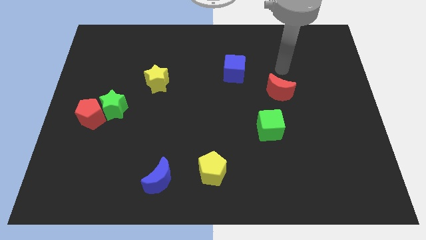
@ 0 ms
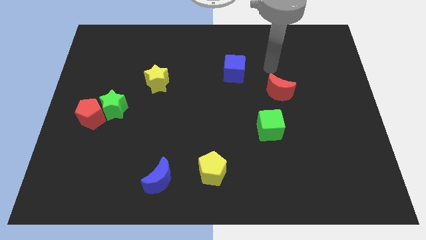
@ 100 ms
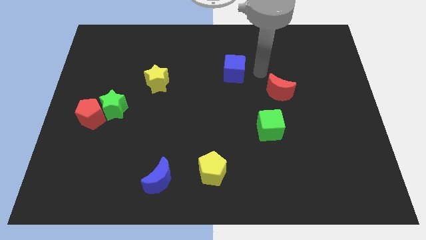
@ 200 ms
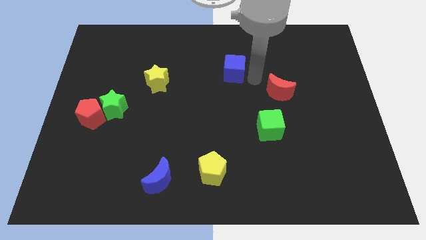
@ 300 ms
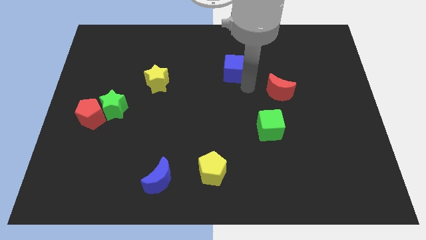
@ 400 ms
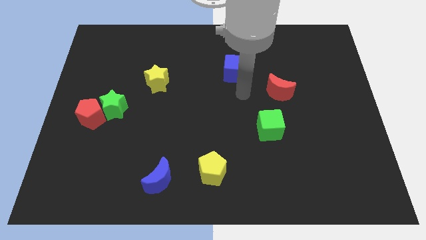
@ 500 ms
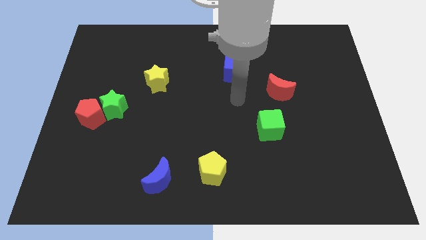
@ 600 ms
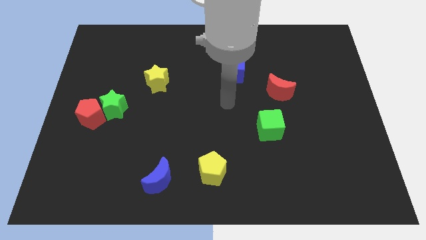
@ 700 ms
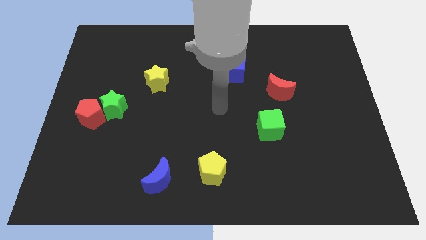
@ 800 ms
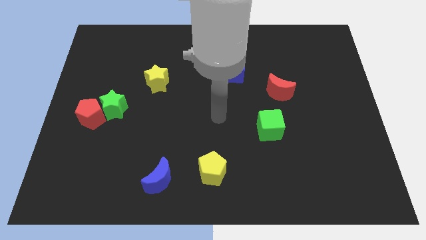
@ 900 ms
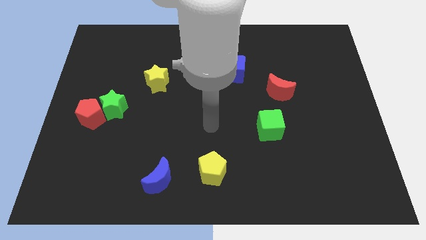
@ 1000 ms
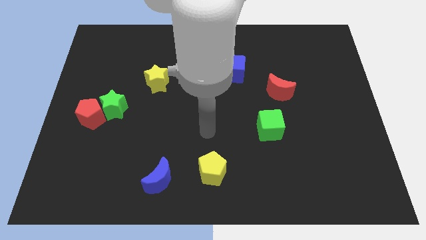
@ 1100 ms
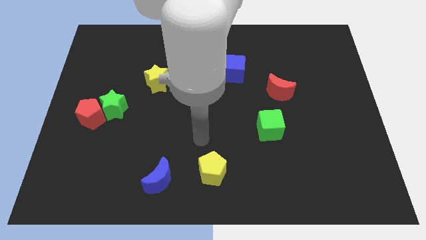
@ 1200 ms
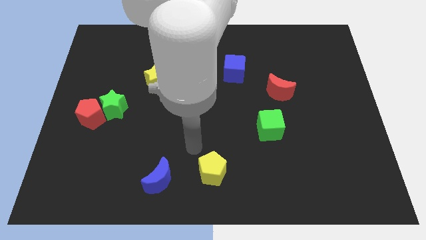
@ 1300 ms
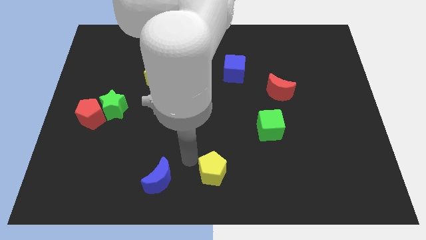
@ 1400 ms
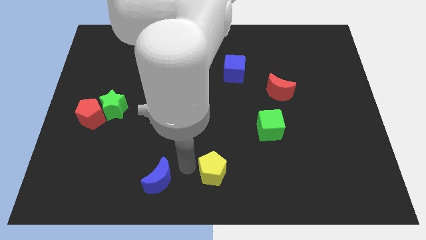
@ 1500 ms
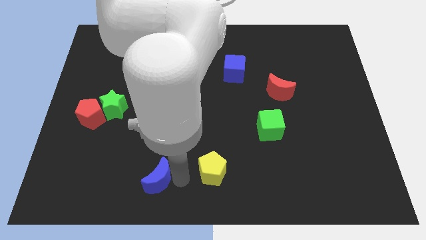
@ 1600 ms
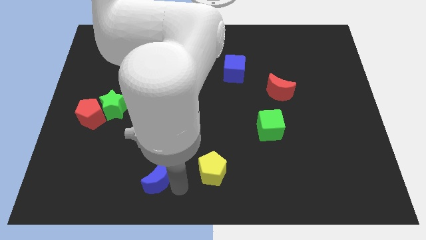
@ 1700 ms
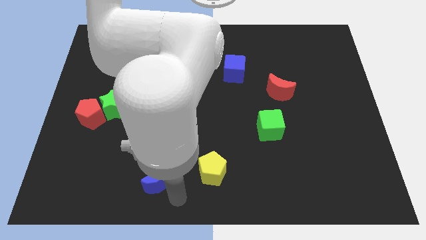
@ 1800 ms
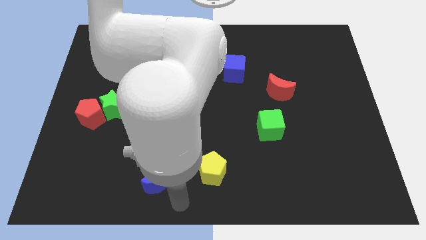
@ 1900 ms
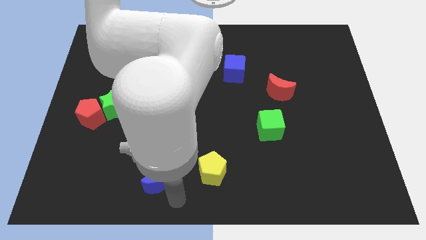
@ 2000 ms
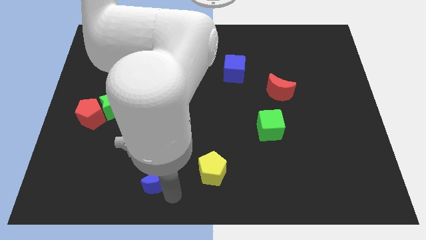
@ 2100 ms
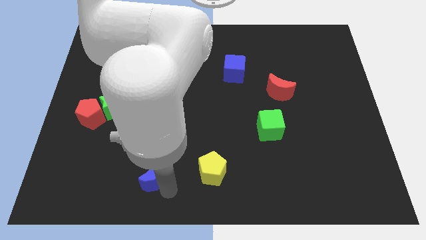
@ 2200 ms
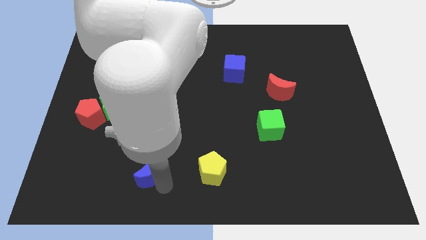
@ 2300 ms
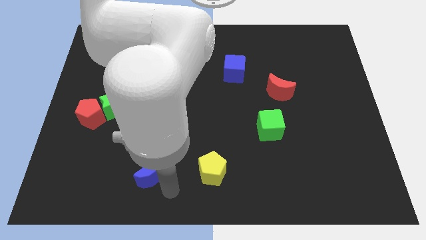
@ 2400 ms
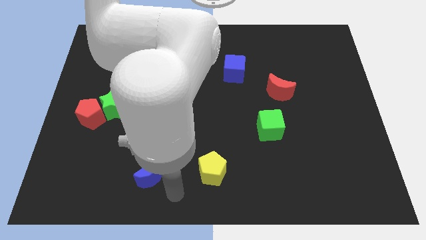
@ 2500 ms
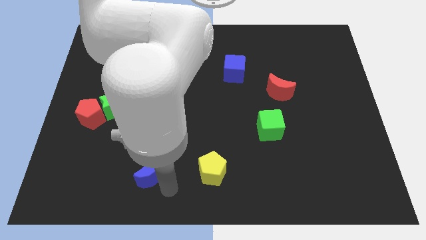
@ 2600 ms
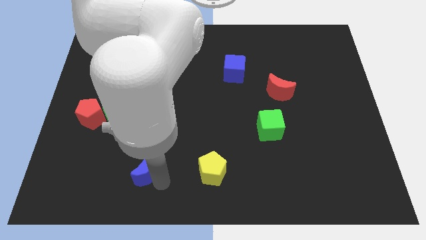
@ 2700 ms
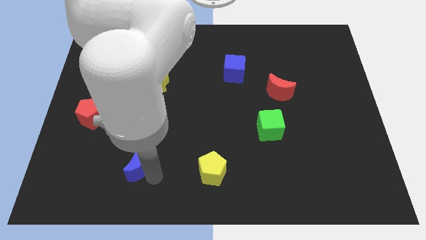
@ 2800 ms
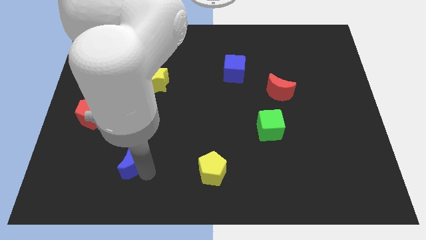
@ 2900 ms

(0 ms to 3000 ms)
push the blue moon diagonally up and left somewhat

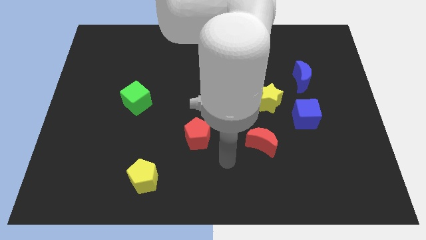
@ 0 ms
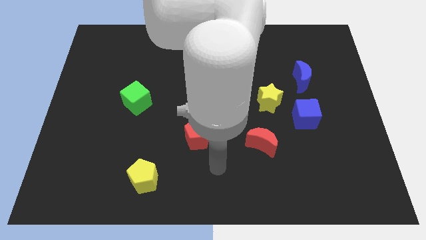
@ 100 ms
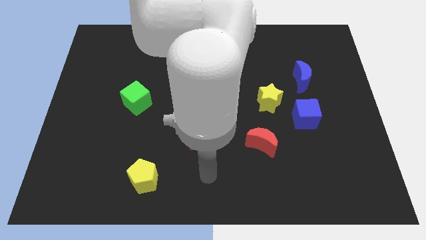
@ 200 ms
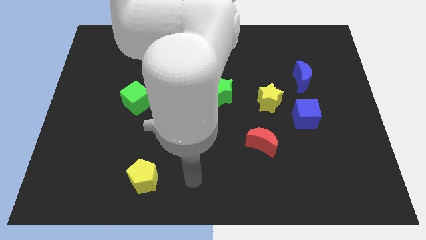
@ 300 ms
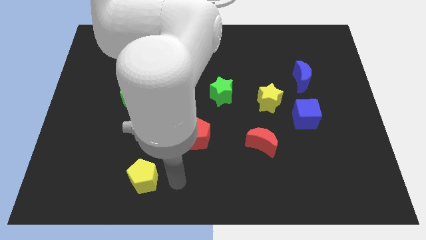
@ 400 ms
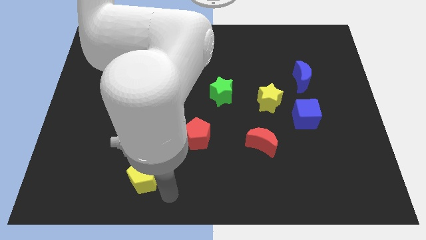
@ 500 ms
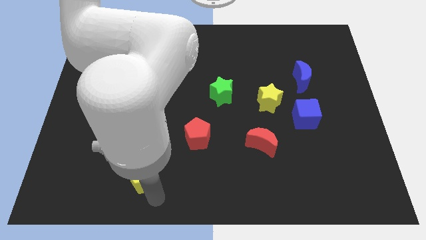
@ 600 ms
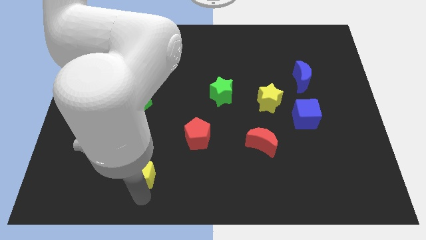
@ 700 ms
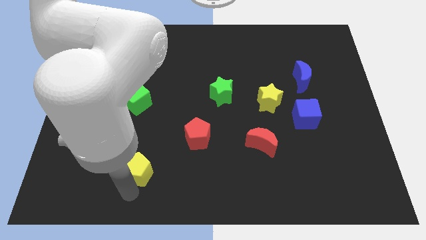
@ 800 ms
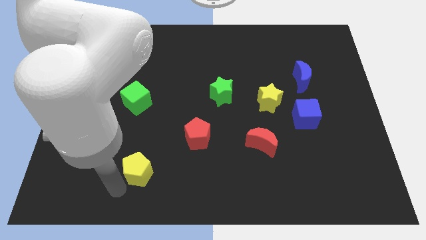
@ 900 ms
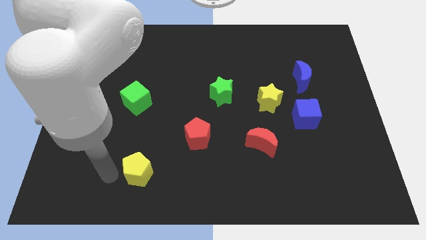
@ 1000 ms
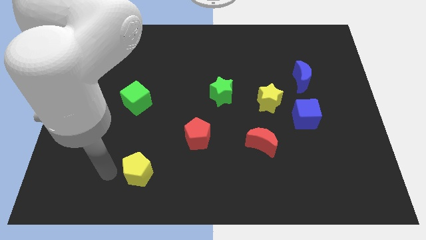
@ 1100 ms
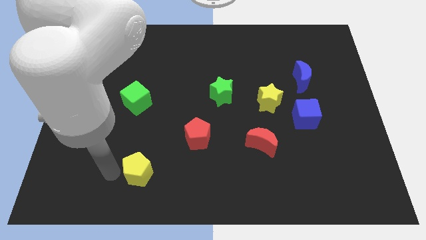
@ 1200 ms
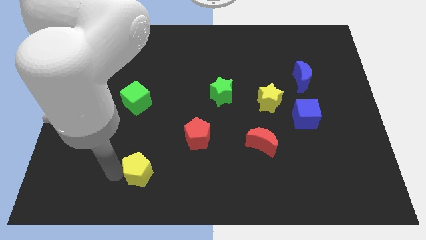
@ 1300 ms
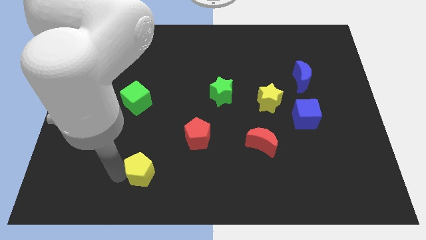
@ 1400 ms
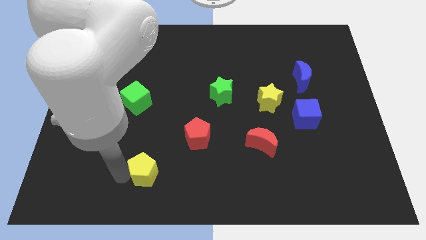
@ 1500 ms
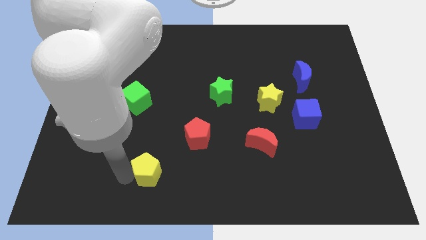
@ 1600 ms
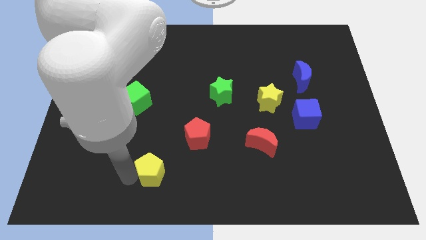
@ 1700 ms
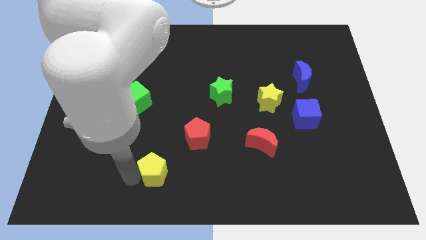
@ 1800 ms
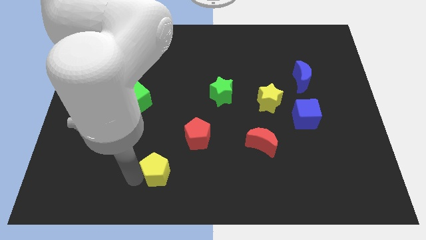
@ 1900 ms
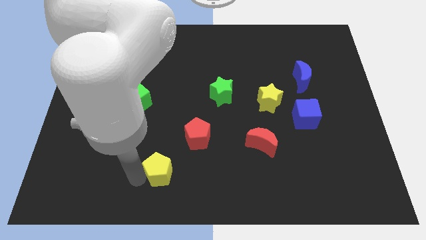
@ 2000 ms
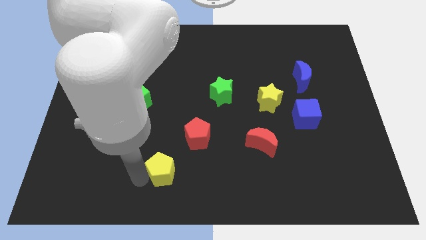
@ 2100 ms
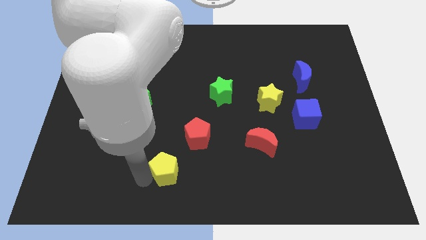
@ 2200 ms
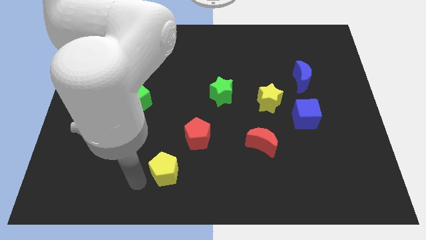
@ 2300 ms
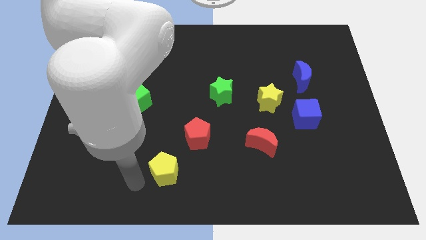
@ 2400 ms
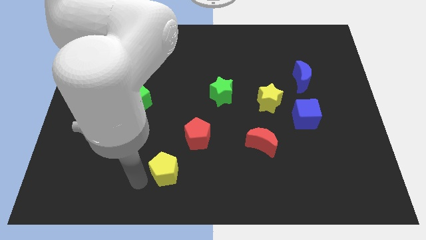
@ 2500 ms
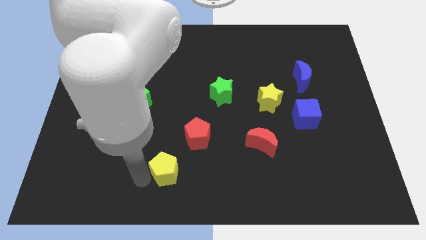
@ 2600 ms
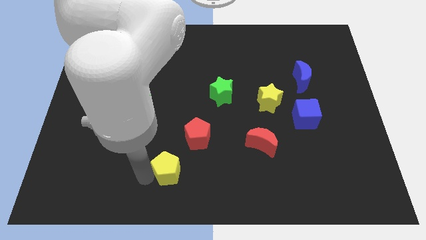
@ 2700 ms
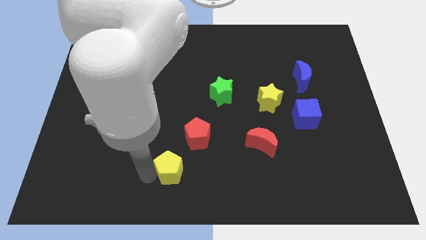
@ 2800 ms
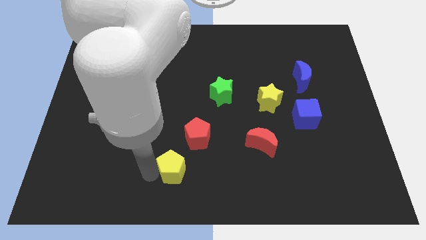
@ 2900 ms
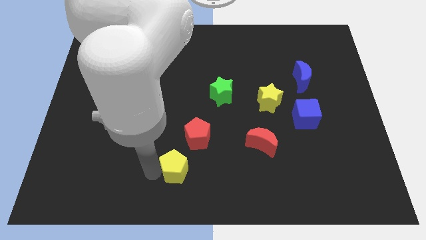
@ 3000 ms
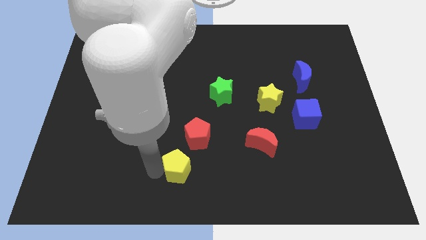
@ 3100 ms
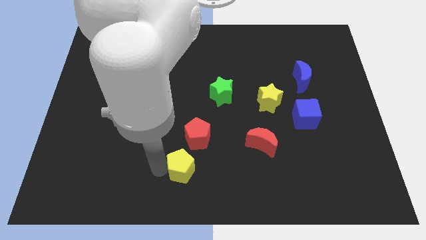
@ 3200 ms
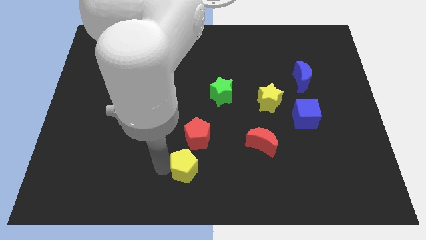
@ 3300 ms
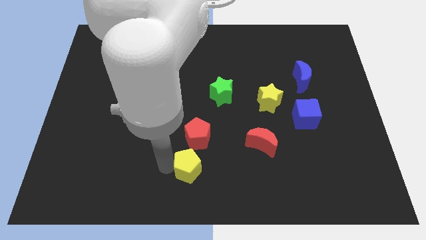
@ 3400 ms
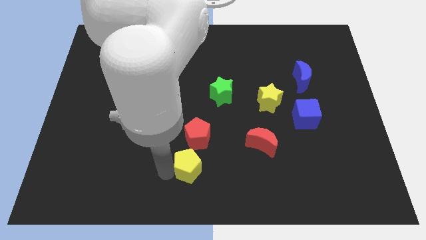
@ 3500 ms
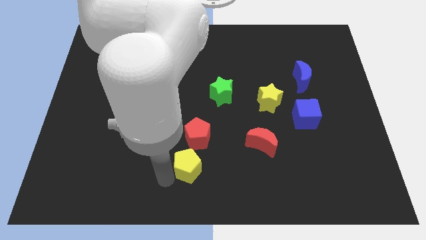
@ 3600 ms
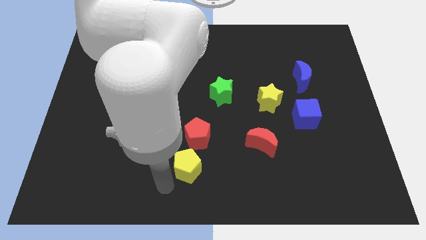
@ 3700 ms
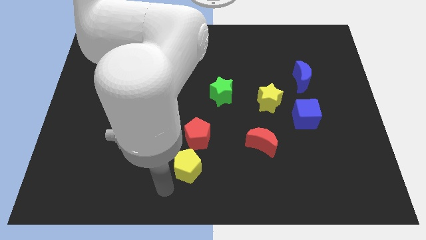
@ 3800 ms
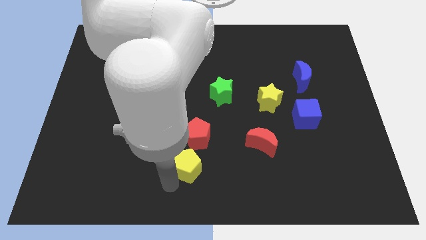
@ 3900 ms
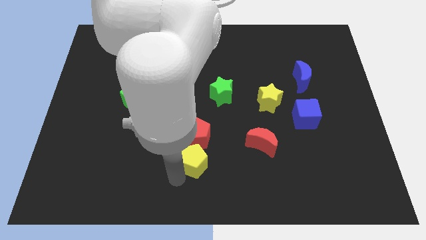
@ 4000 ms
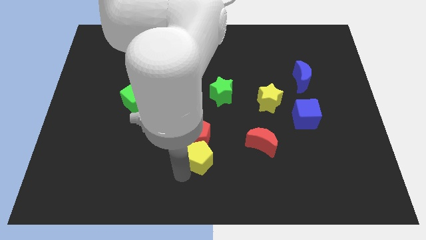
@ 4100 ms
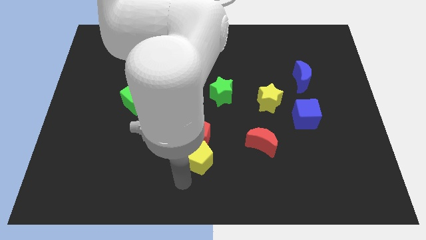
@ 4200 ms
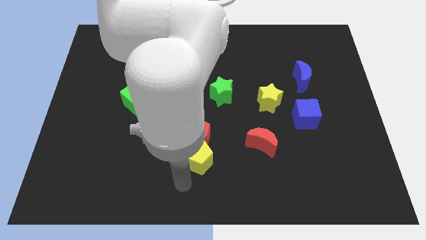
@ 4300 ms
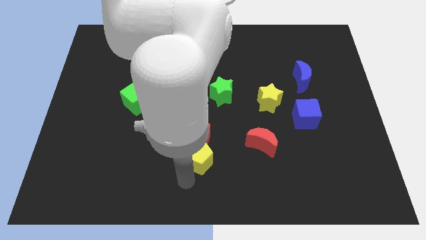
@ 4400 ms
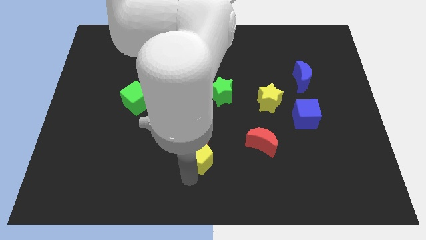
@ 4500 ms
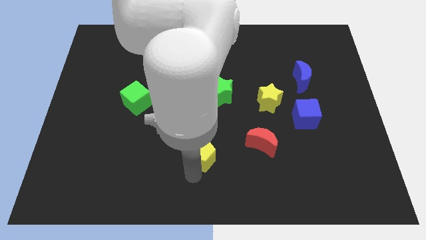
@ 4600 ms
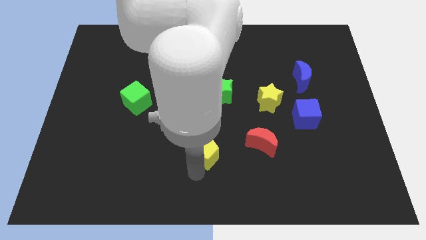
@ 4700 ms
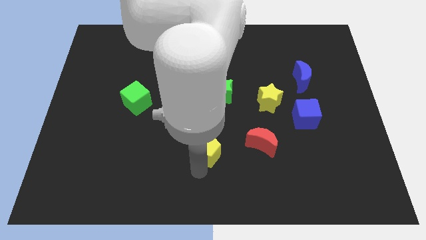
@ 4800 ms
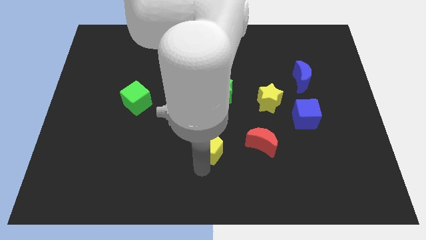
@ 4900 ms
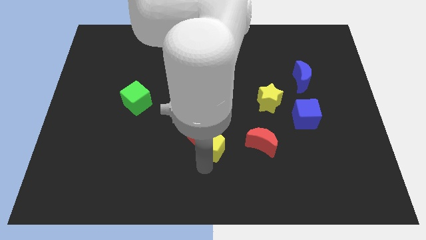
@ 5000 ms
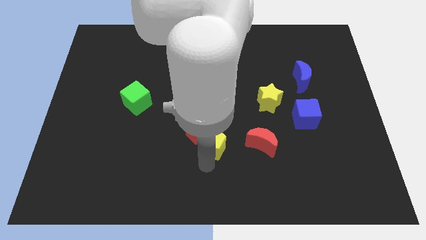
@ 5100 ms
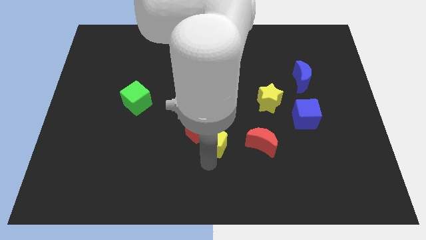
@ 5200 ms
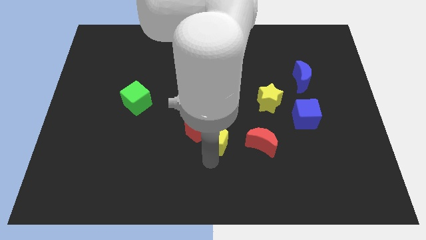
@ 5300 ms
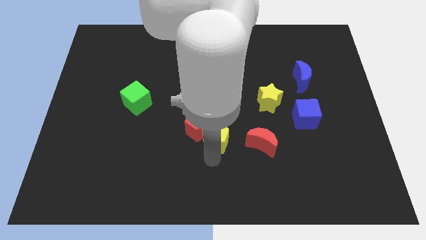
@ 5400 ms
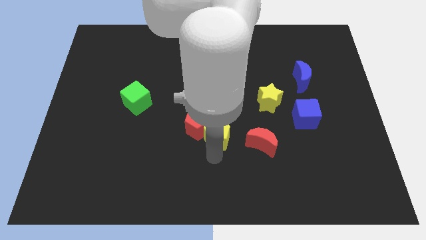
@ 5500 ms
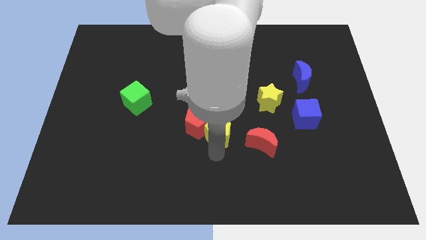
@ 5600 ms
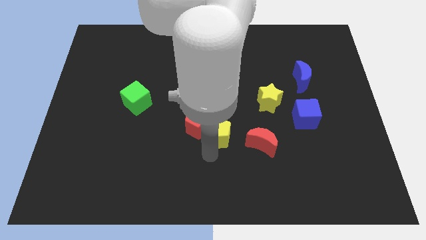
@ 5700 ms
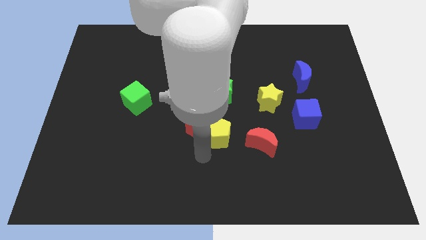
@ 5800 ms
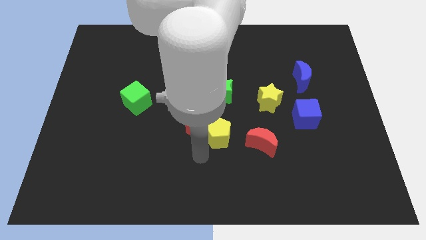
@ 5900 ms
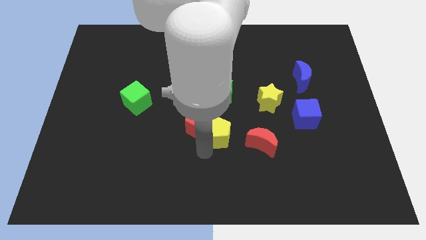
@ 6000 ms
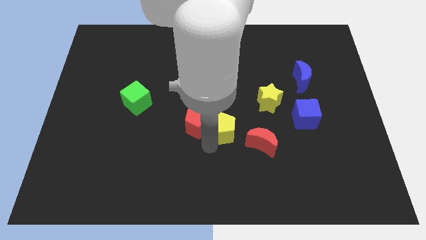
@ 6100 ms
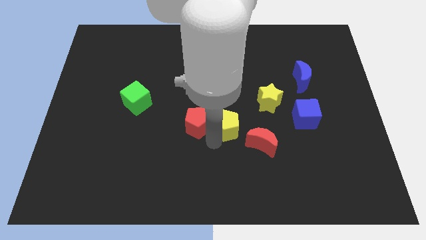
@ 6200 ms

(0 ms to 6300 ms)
move the yellow pentagon upwards and to the right diagonally
